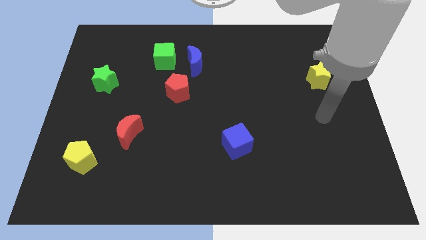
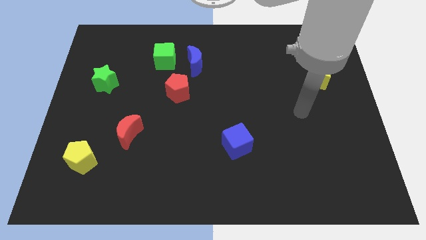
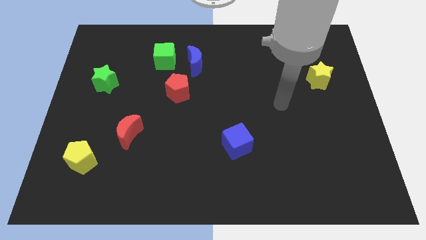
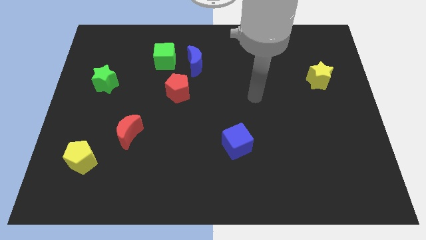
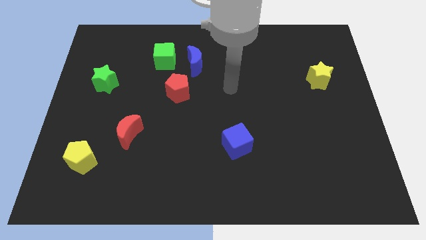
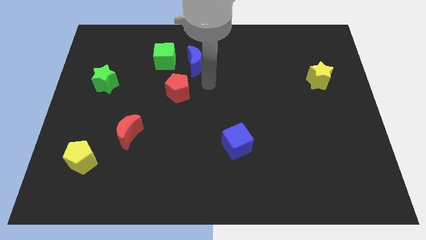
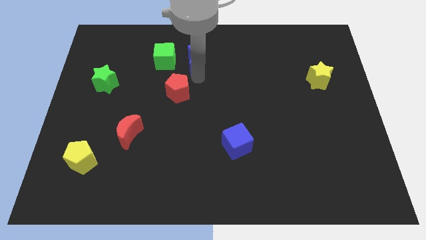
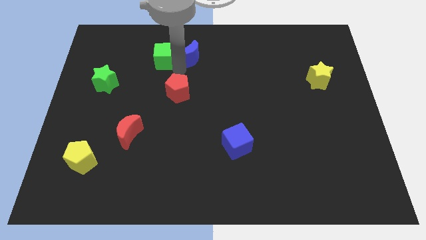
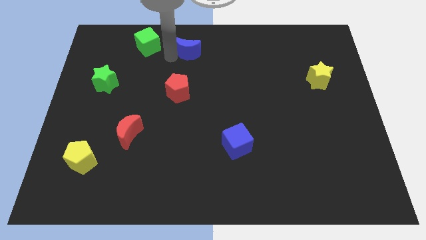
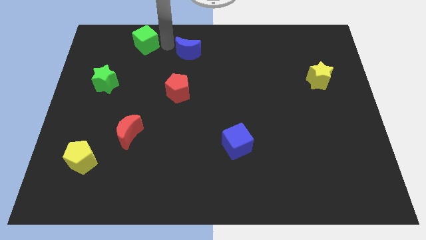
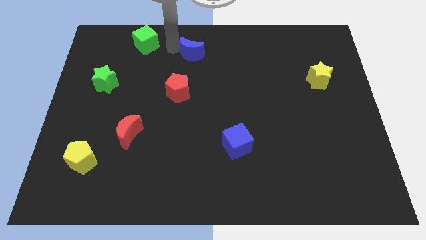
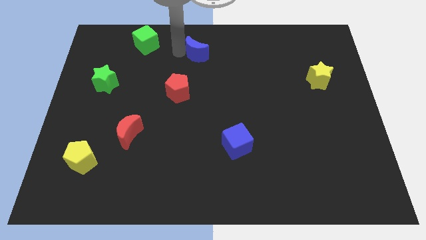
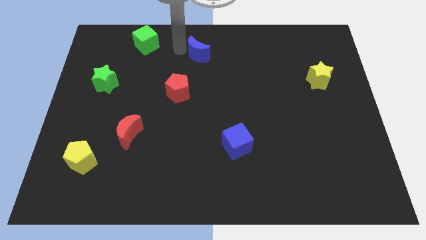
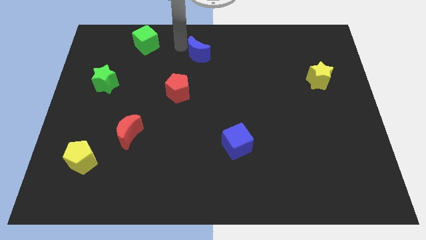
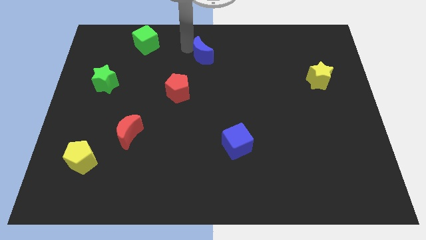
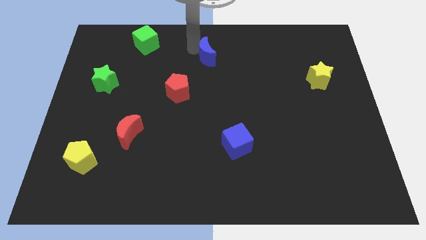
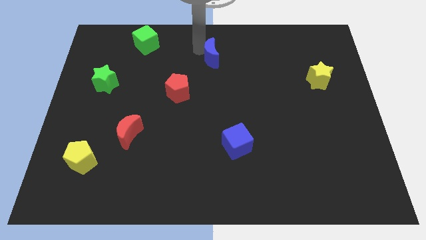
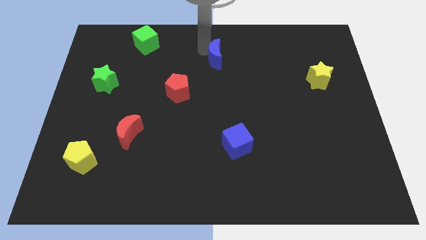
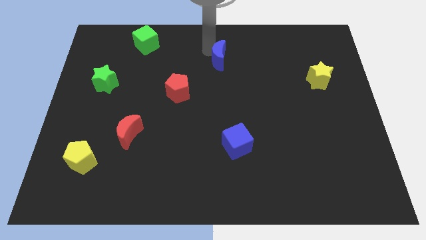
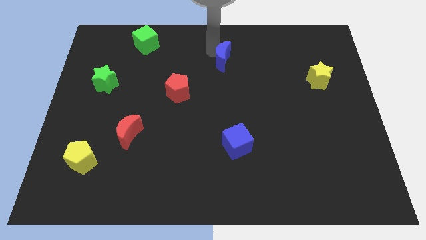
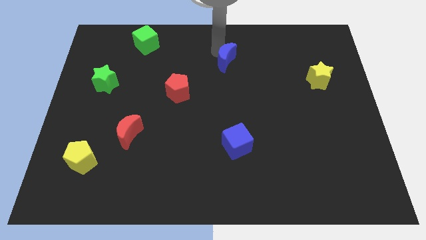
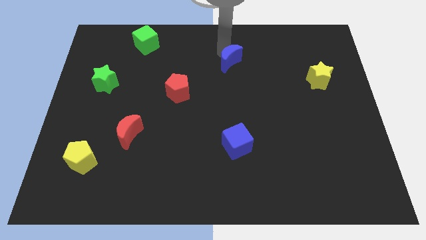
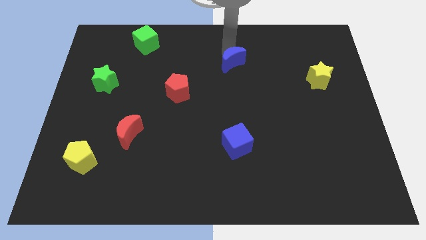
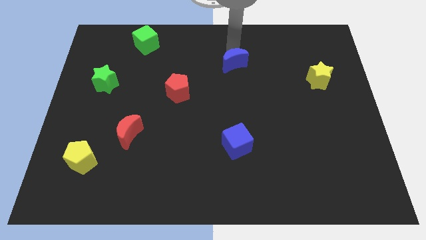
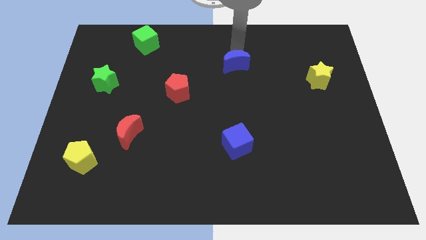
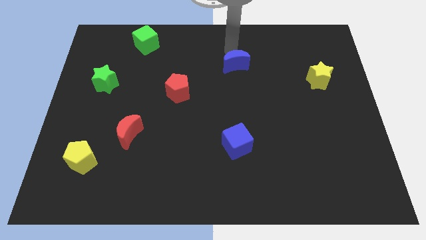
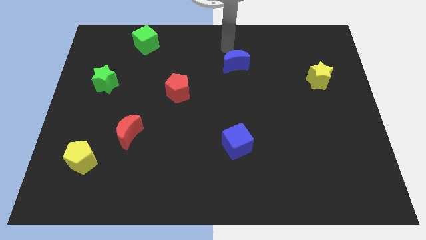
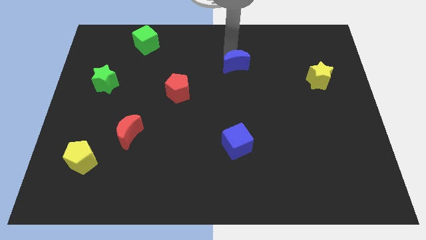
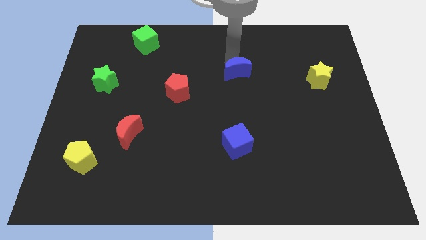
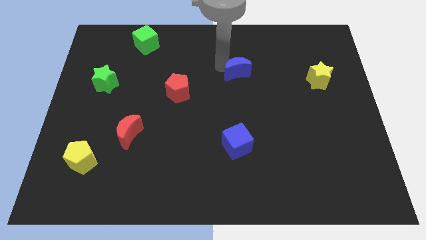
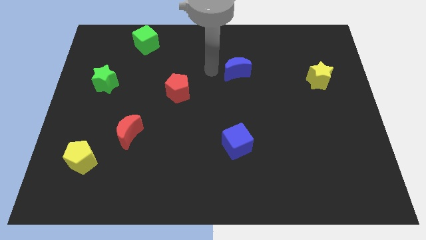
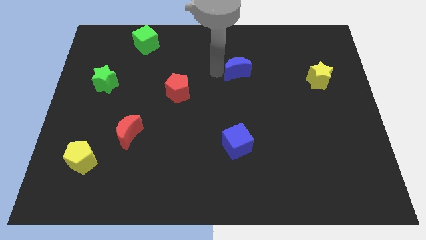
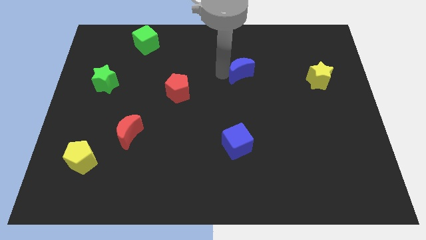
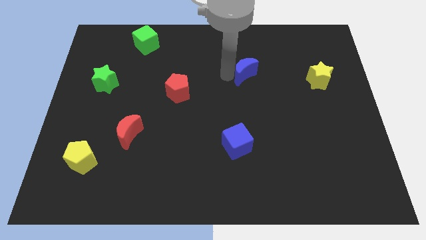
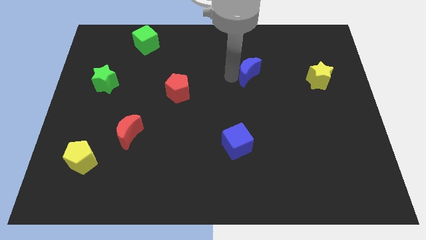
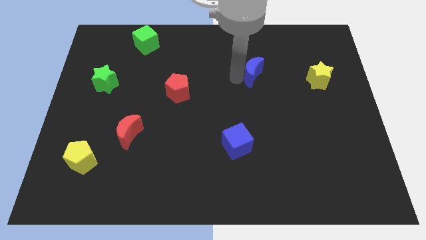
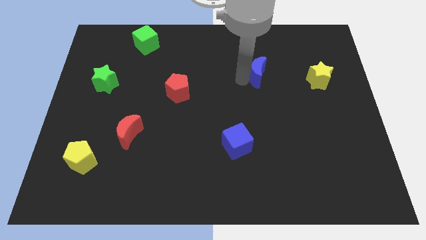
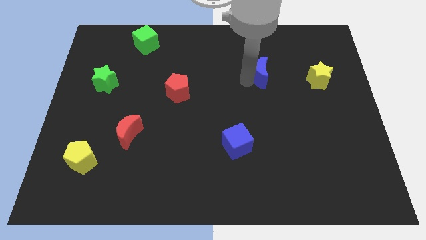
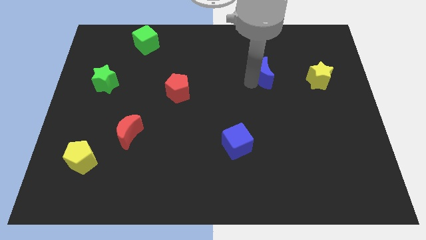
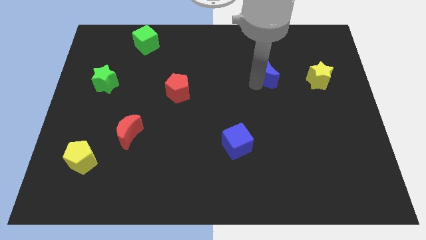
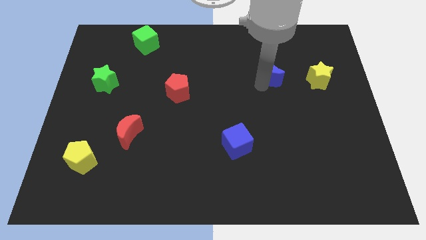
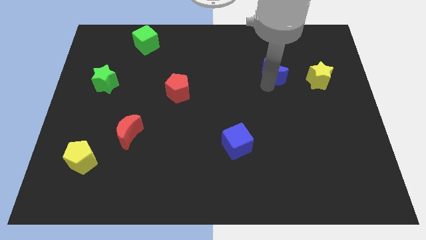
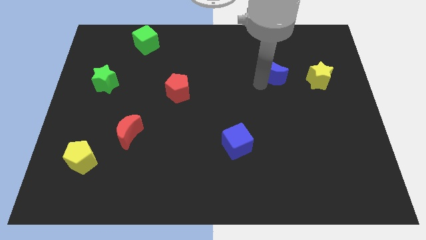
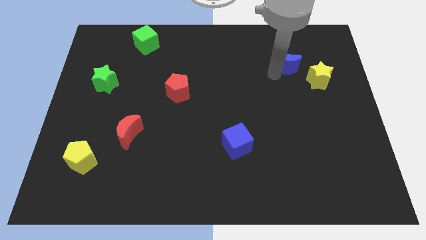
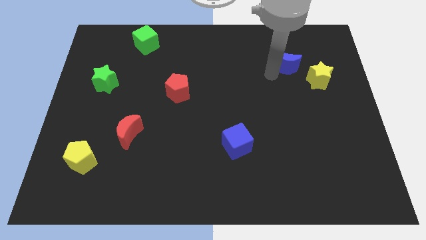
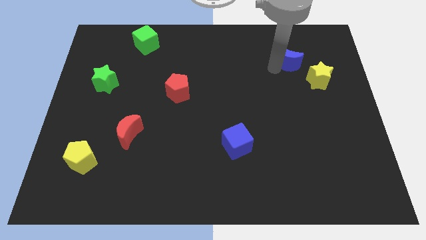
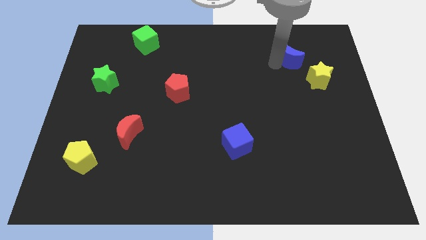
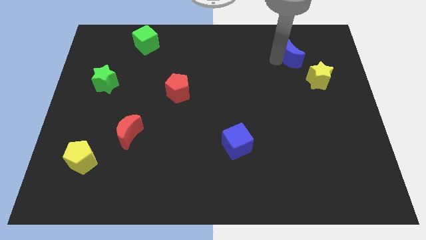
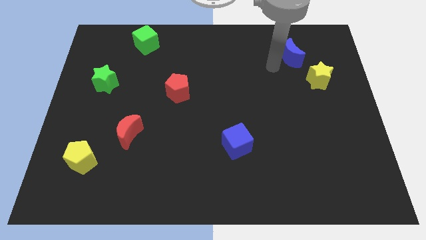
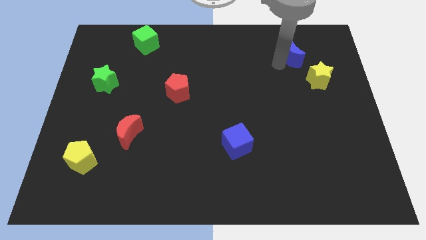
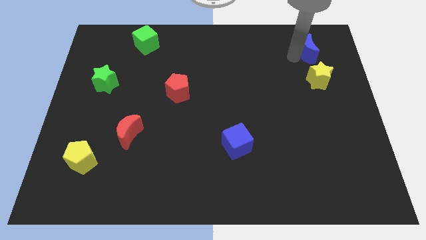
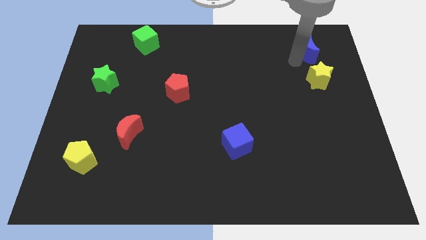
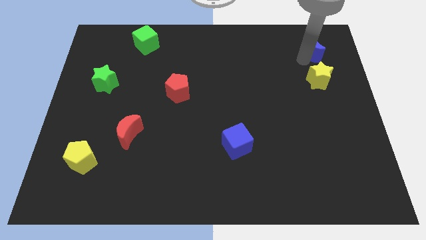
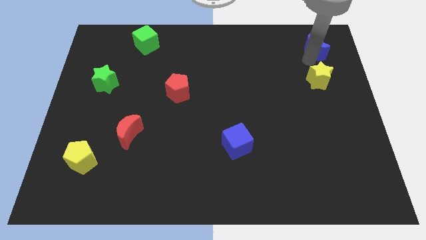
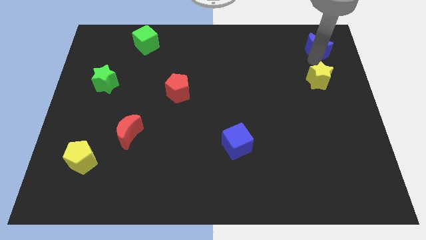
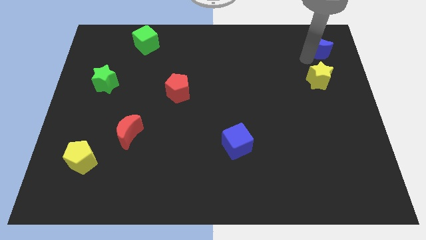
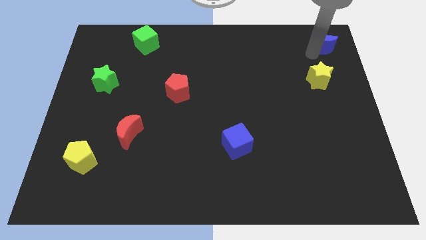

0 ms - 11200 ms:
move the blue moon to the top right corner

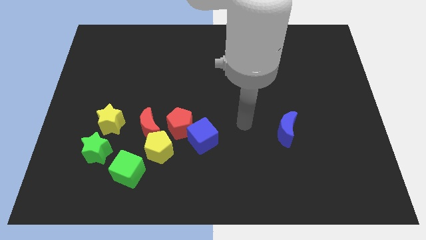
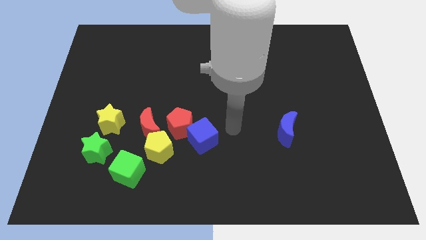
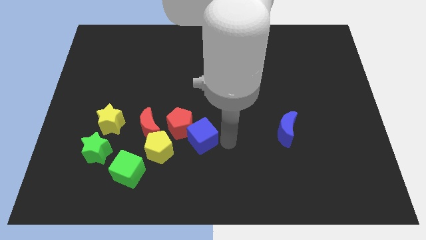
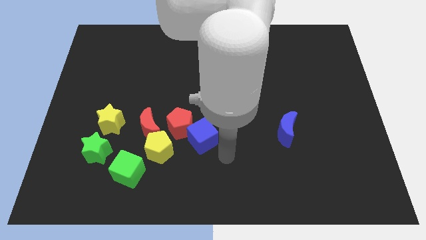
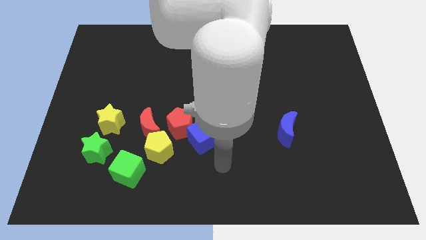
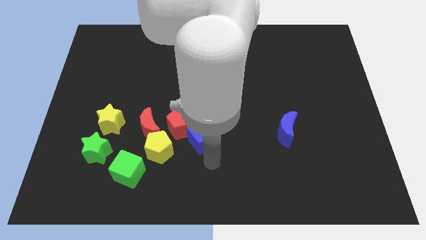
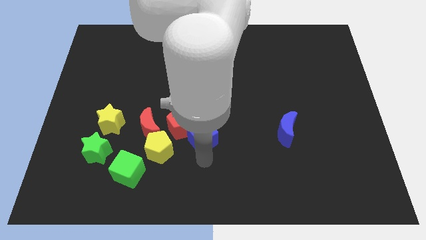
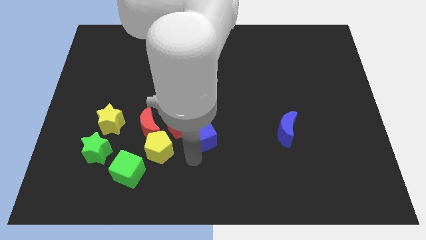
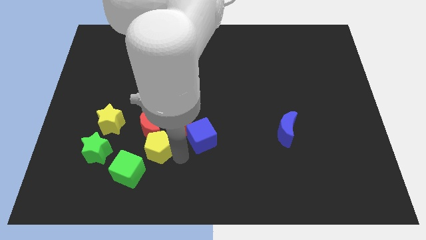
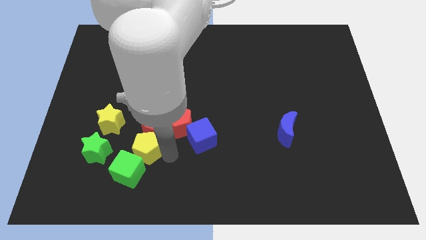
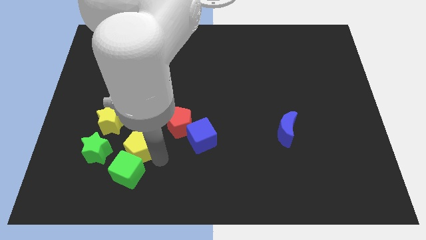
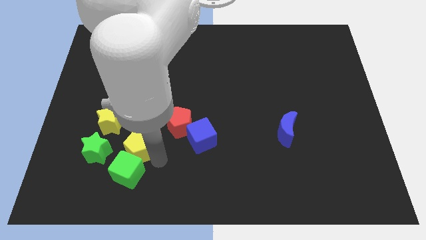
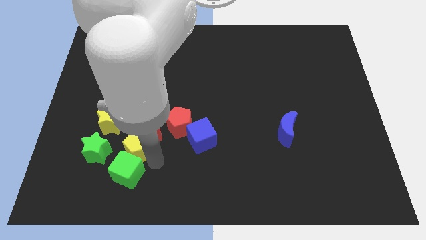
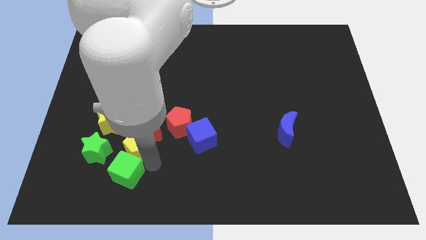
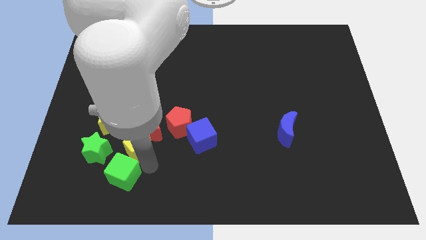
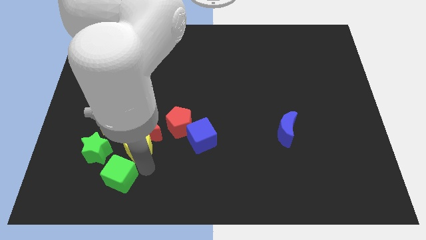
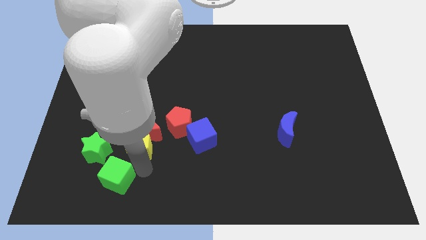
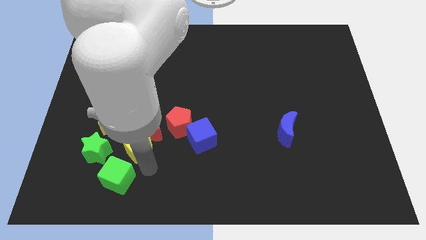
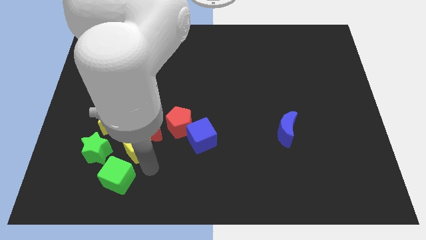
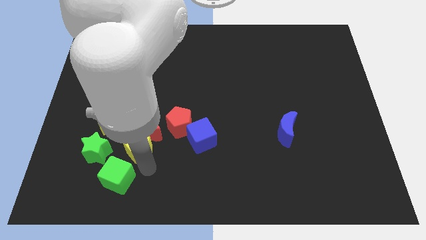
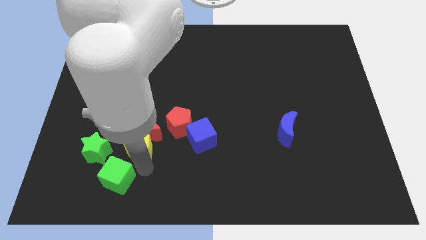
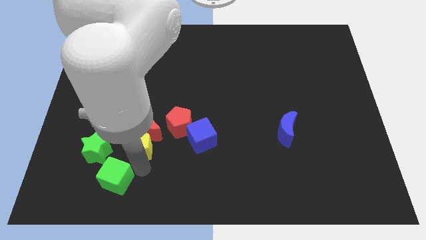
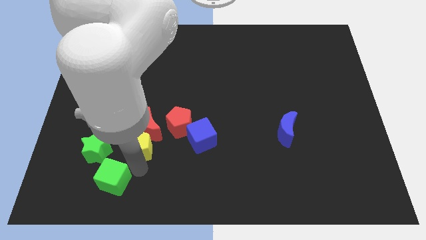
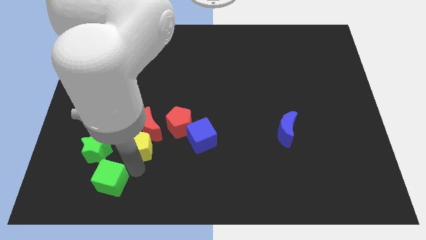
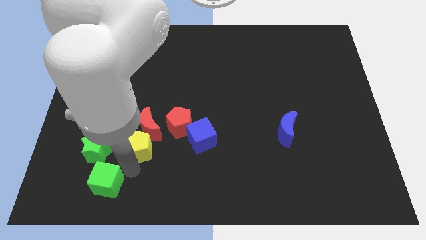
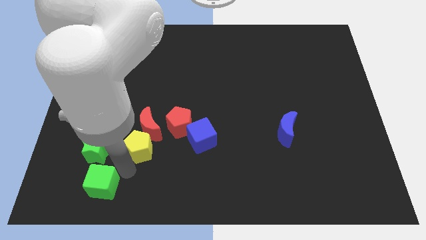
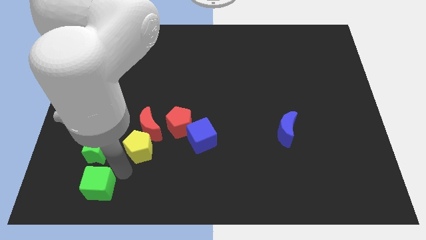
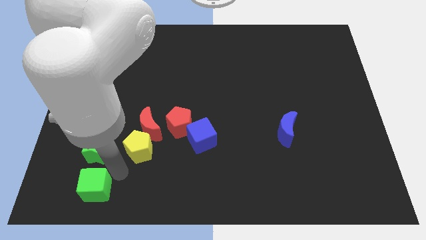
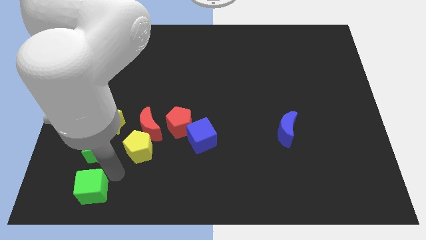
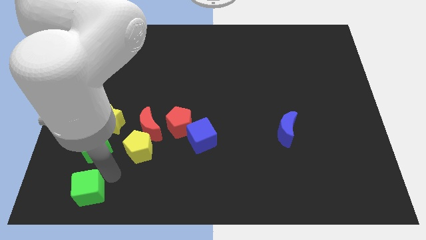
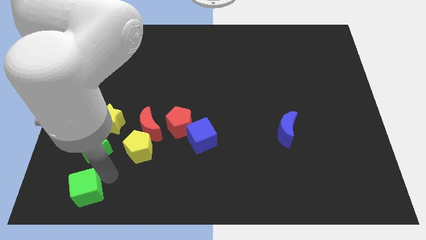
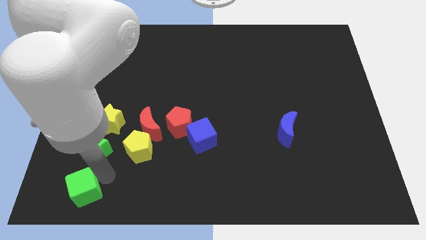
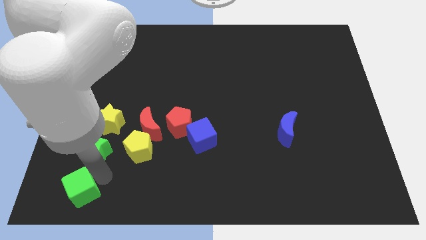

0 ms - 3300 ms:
push the green cube to the bottom left corner
